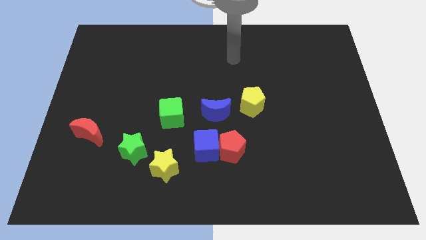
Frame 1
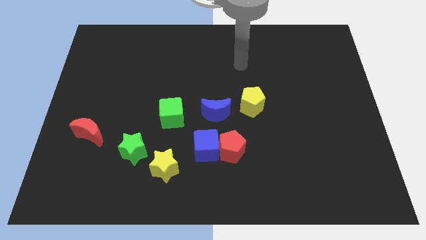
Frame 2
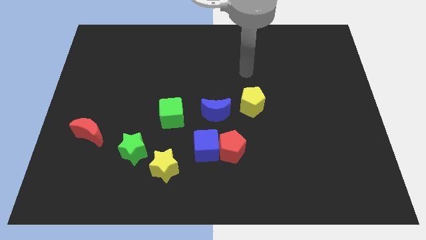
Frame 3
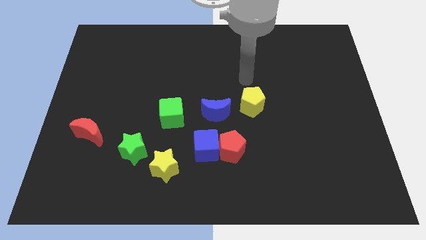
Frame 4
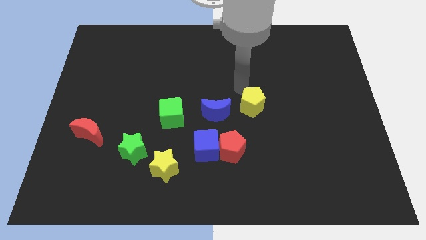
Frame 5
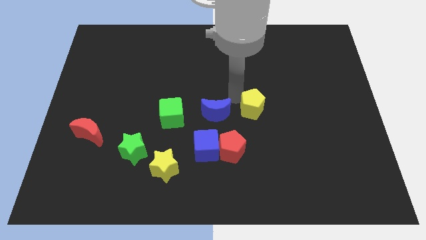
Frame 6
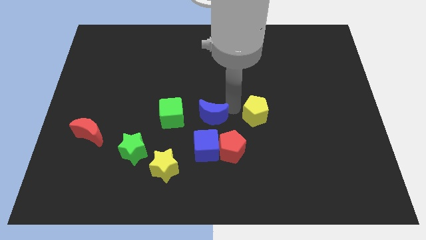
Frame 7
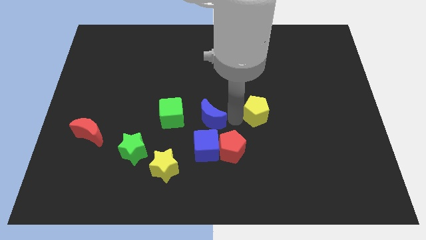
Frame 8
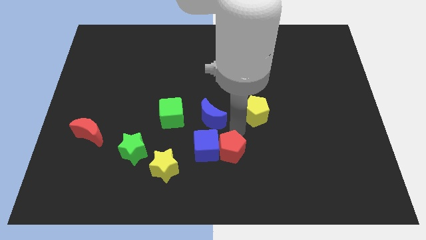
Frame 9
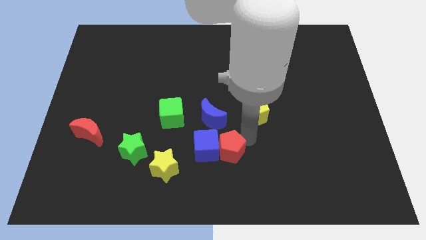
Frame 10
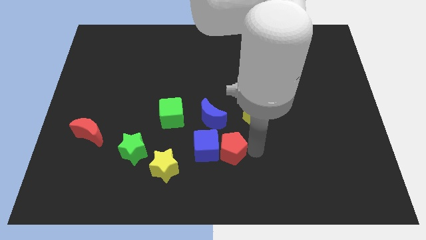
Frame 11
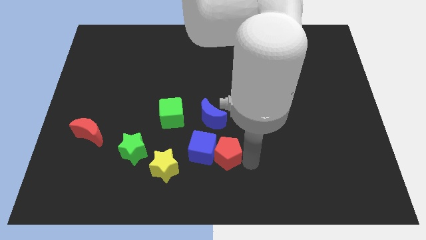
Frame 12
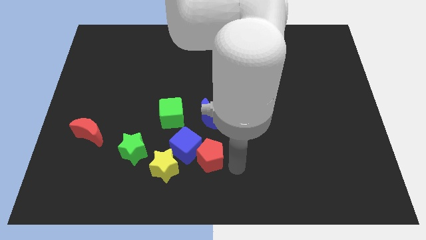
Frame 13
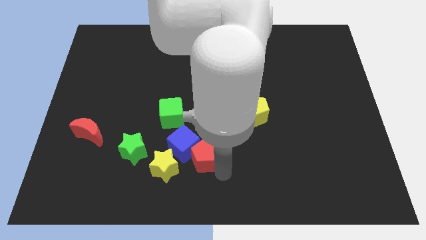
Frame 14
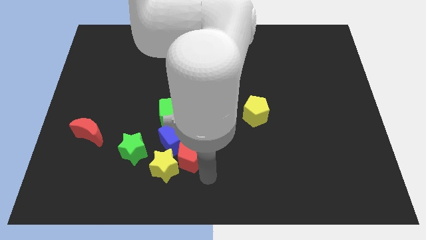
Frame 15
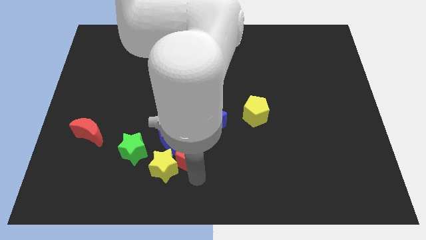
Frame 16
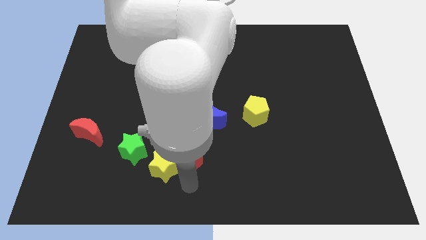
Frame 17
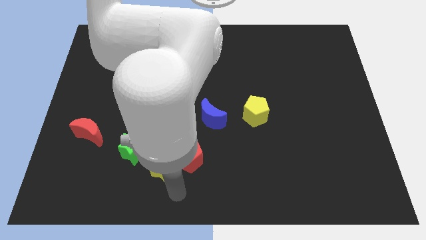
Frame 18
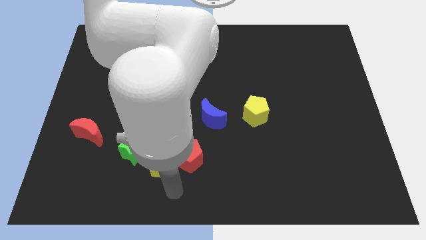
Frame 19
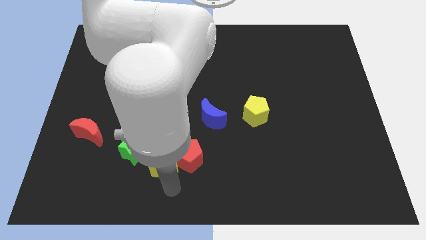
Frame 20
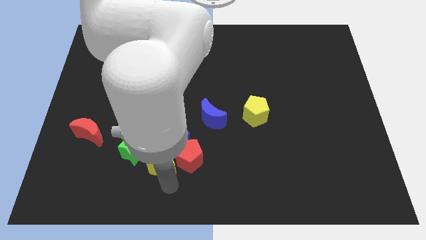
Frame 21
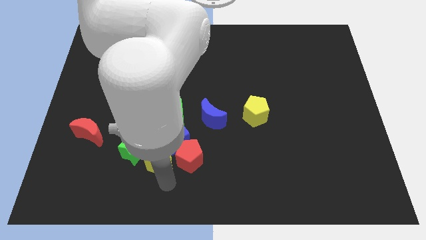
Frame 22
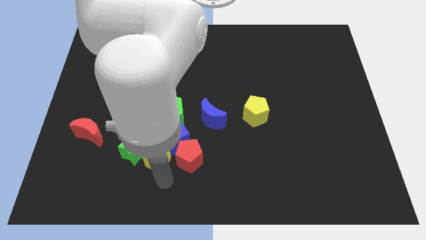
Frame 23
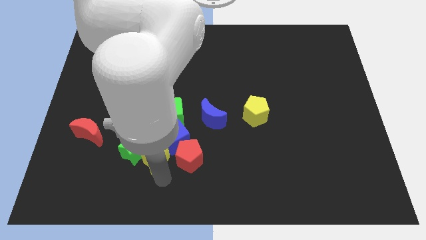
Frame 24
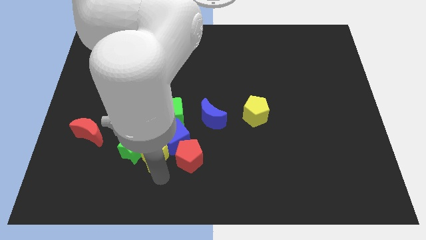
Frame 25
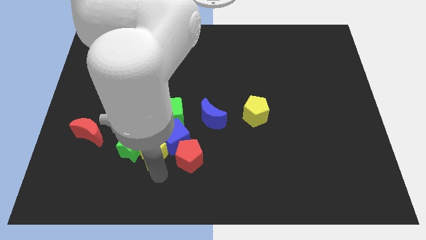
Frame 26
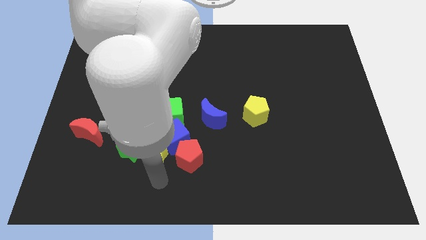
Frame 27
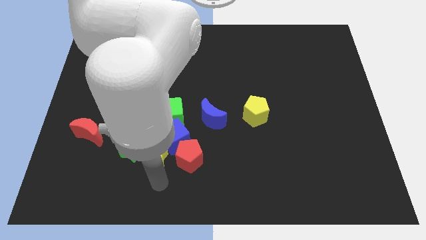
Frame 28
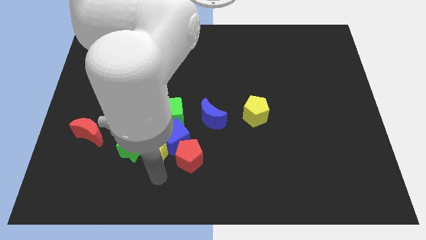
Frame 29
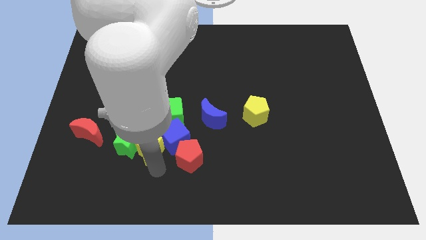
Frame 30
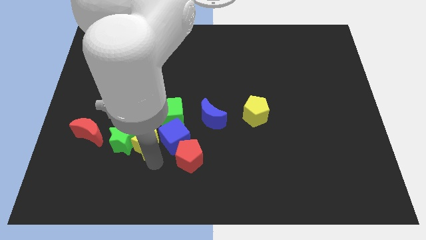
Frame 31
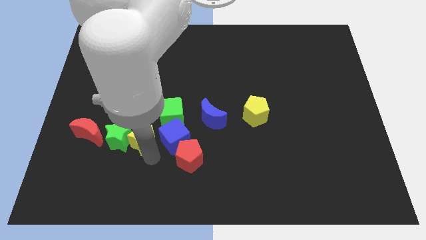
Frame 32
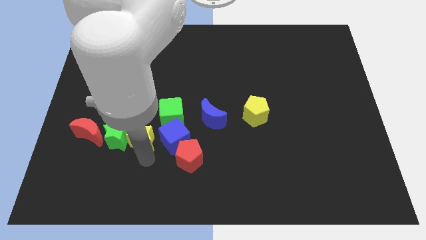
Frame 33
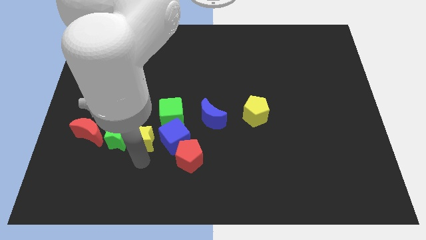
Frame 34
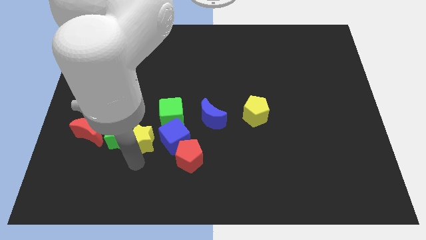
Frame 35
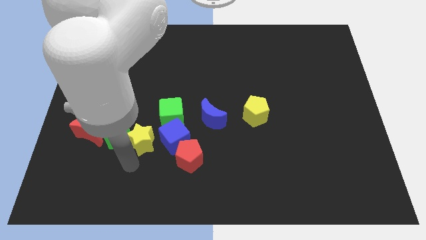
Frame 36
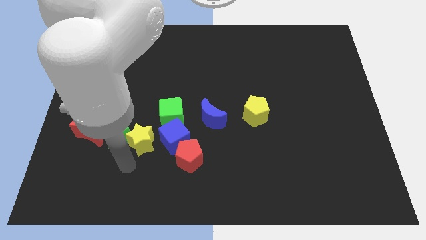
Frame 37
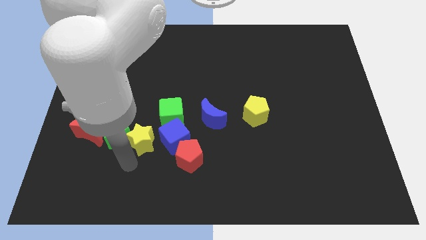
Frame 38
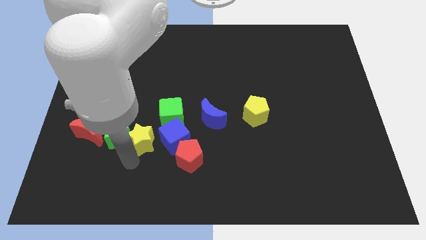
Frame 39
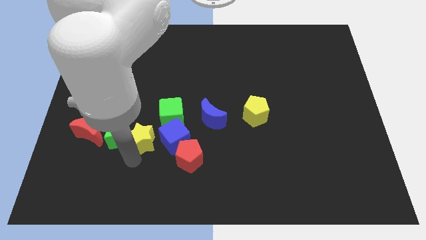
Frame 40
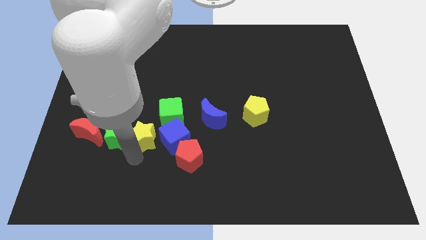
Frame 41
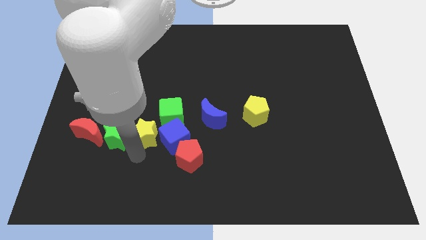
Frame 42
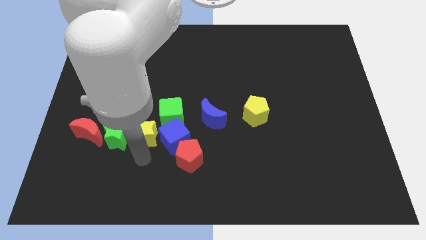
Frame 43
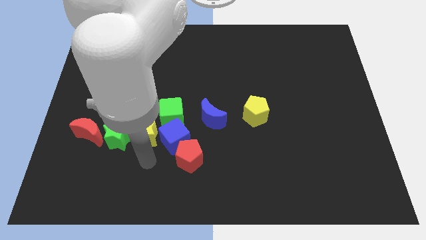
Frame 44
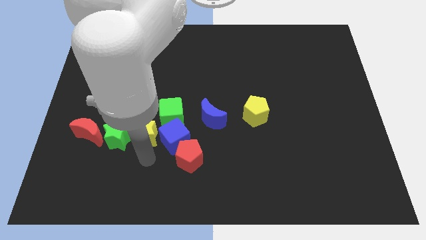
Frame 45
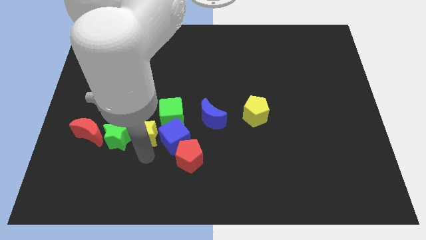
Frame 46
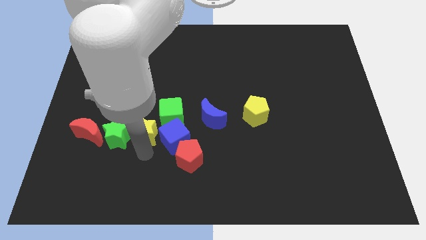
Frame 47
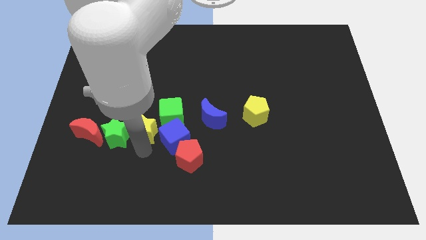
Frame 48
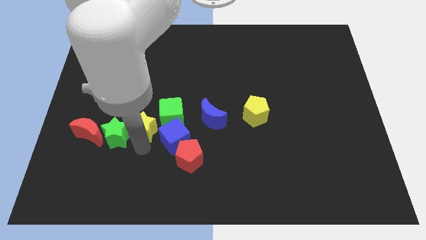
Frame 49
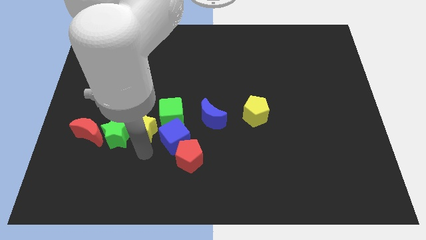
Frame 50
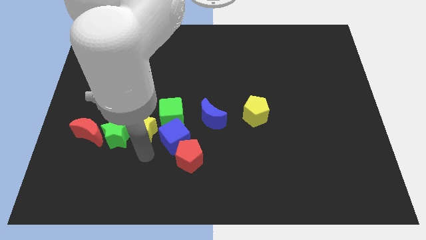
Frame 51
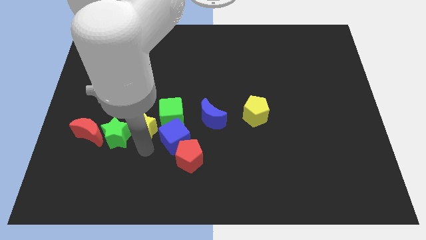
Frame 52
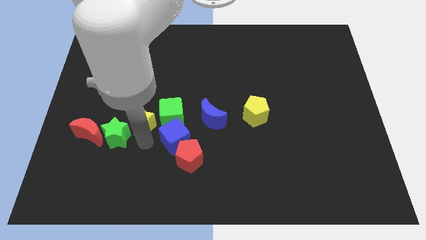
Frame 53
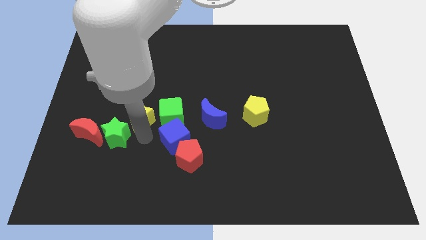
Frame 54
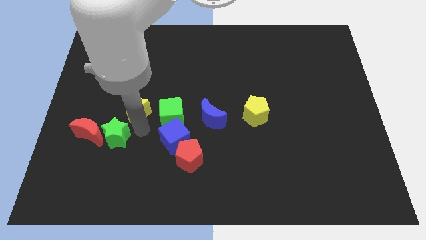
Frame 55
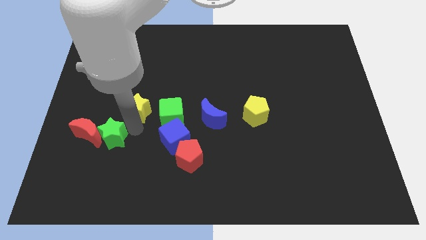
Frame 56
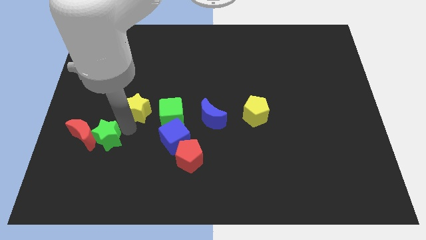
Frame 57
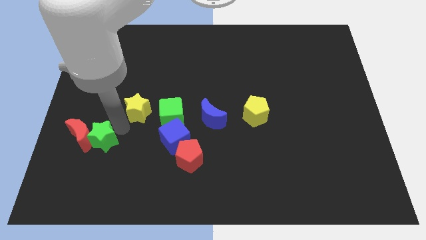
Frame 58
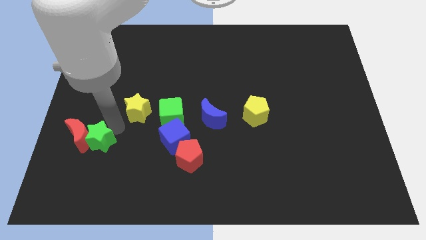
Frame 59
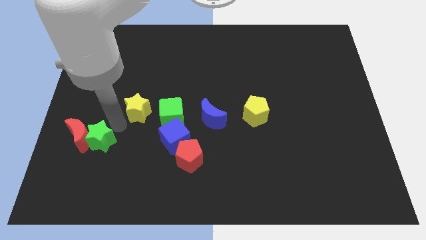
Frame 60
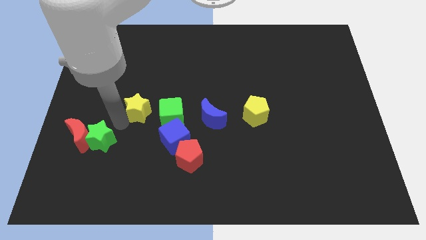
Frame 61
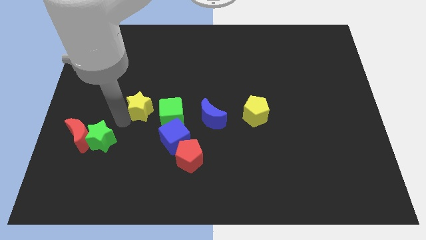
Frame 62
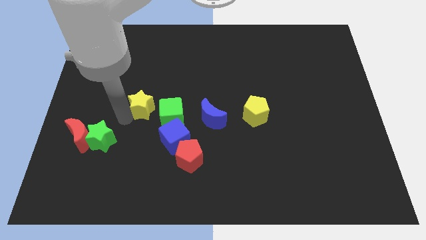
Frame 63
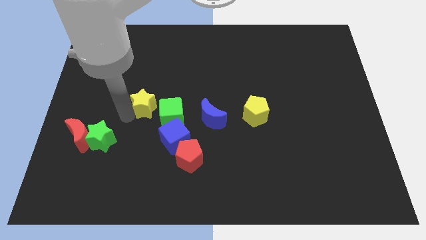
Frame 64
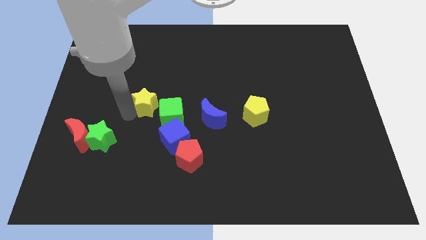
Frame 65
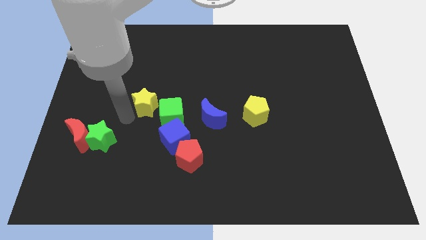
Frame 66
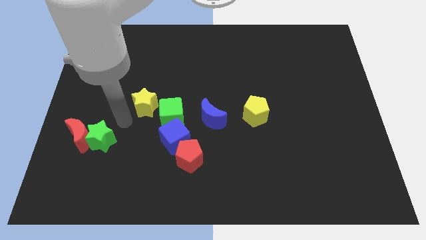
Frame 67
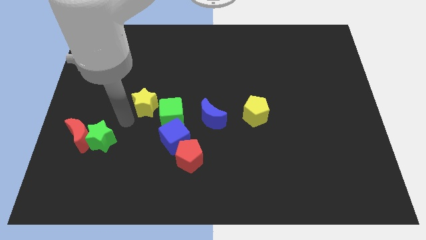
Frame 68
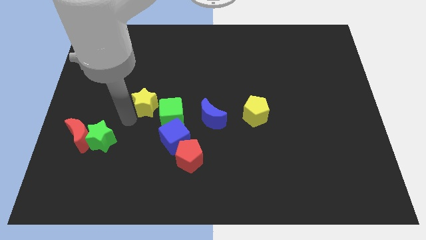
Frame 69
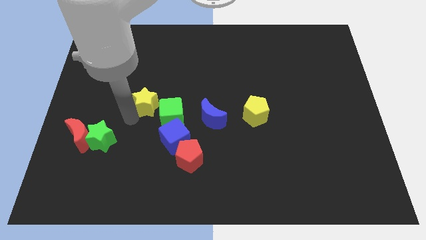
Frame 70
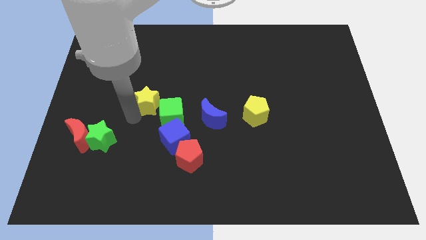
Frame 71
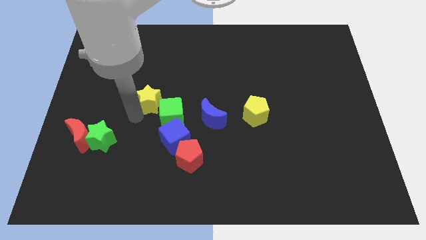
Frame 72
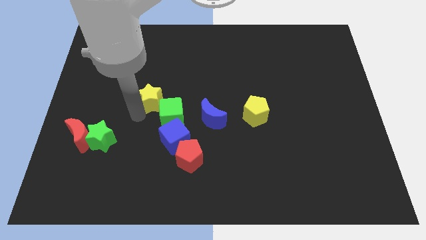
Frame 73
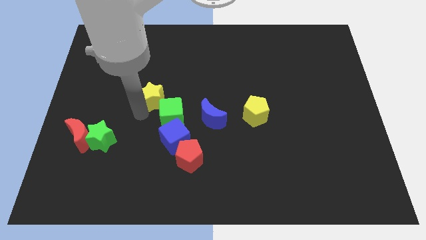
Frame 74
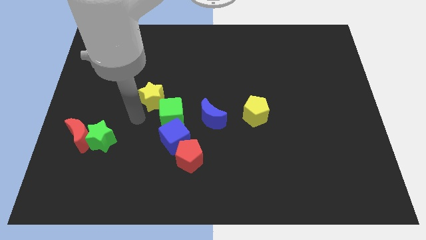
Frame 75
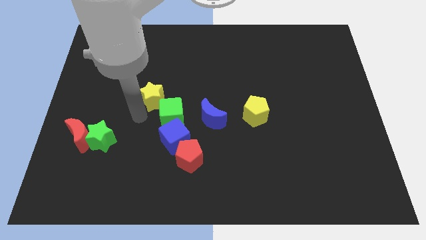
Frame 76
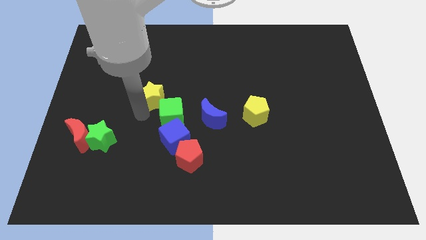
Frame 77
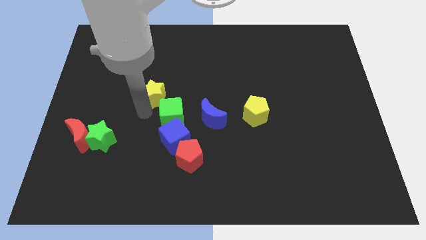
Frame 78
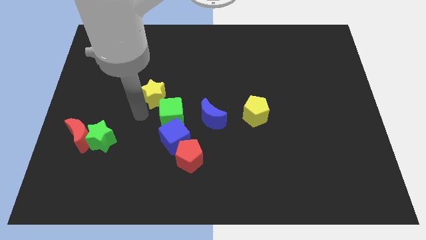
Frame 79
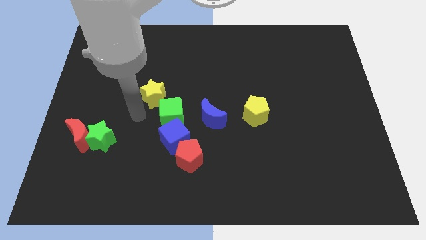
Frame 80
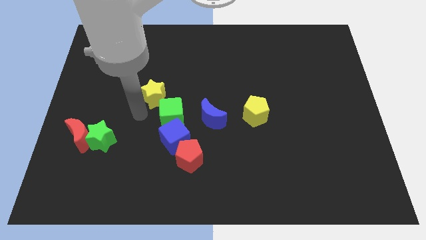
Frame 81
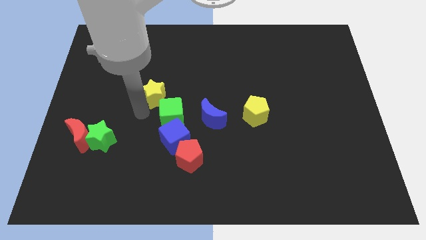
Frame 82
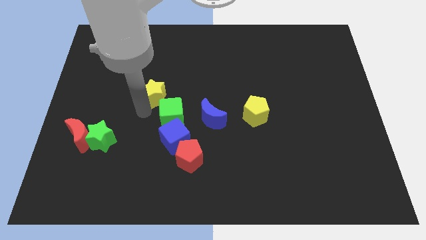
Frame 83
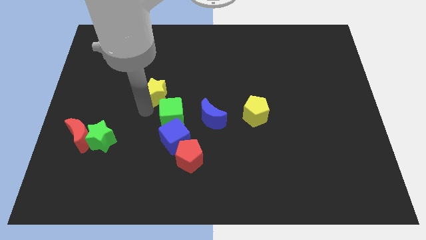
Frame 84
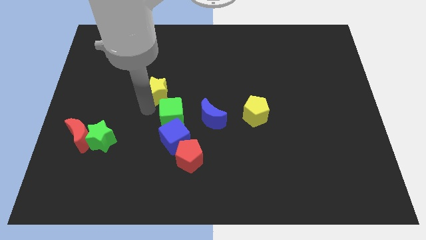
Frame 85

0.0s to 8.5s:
slide the yellow star upwards
